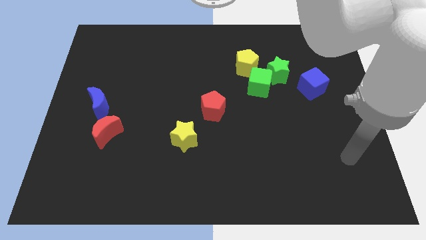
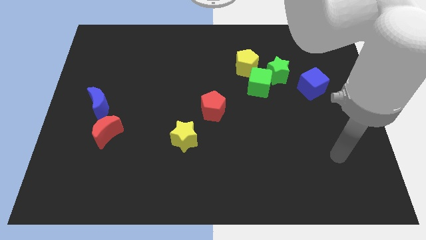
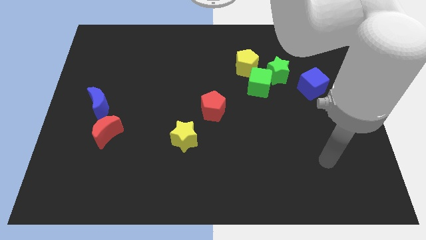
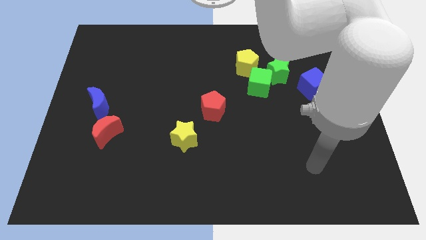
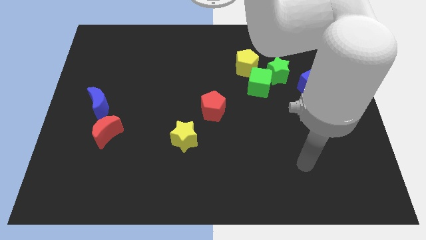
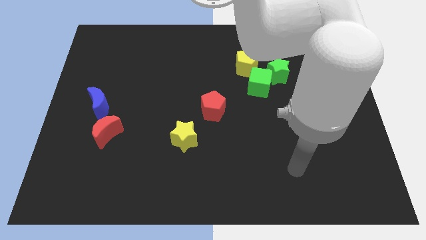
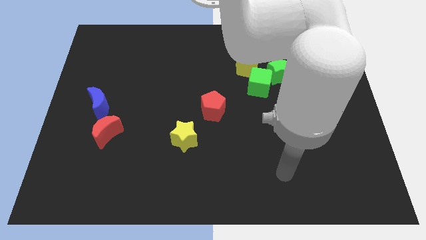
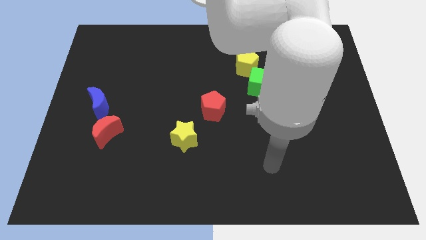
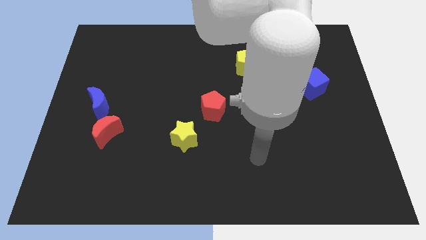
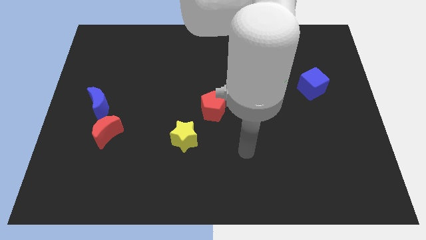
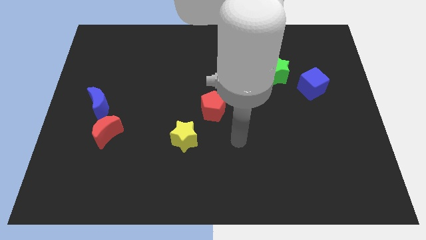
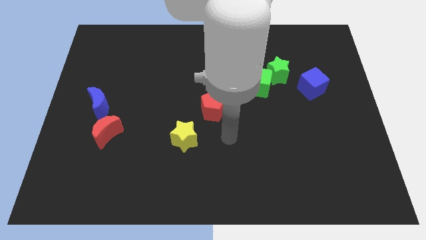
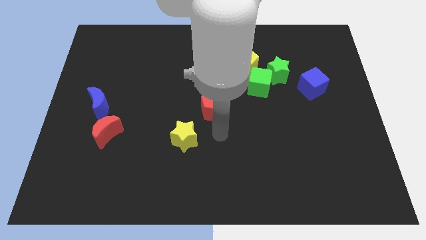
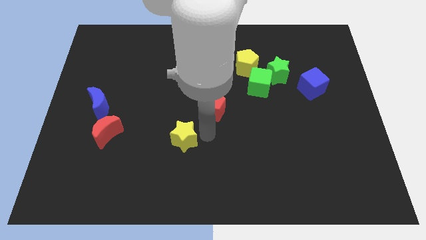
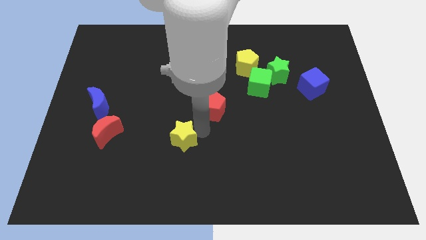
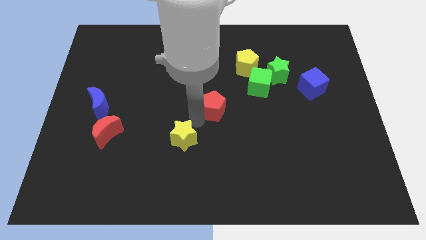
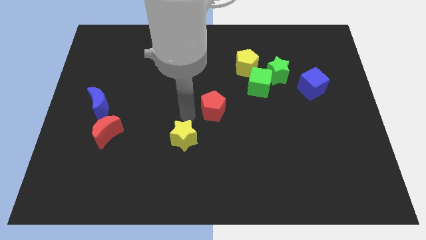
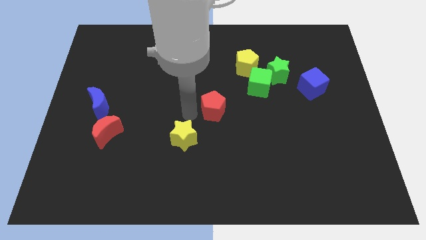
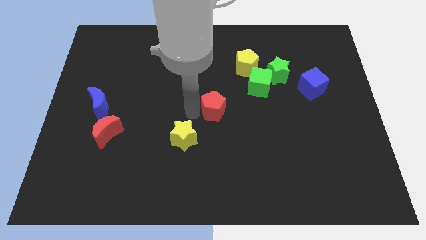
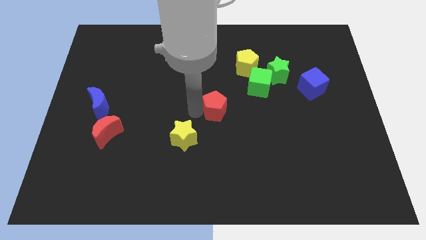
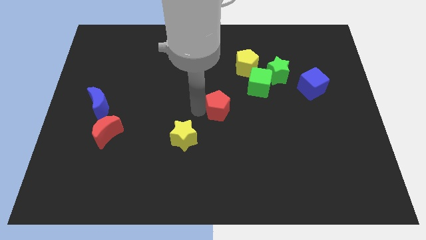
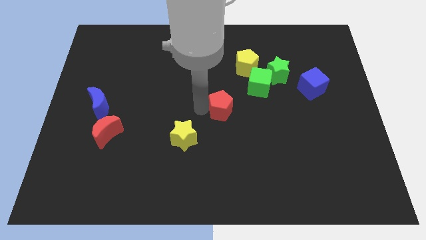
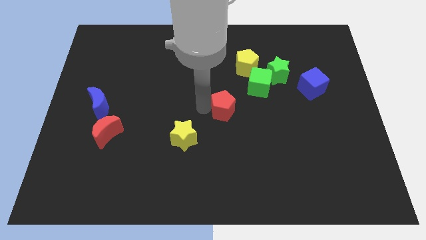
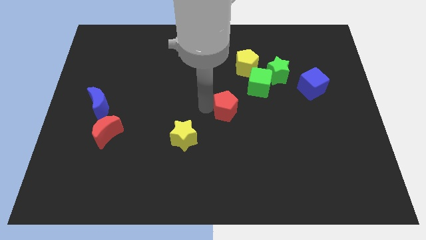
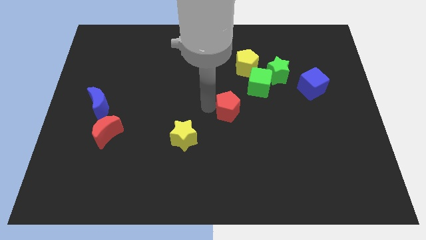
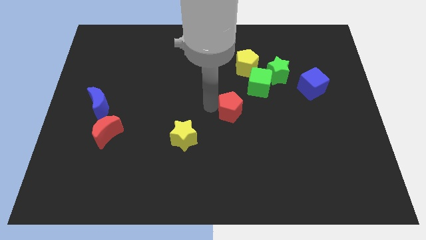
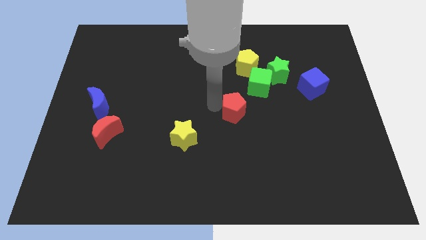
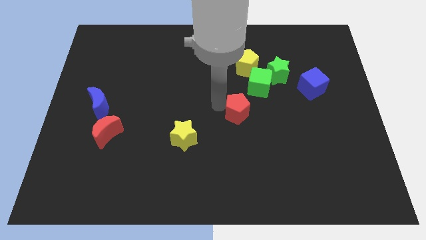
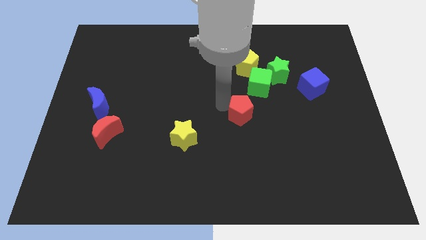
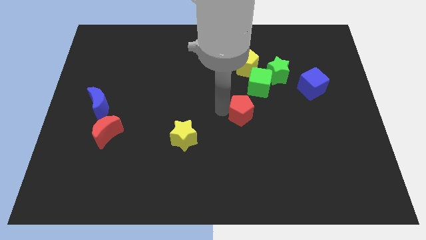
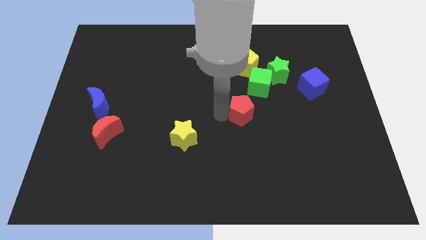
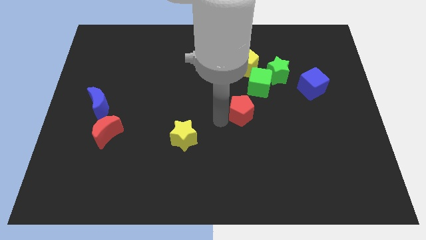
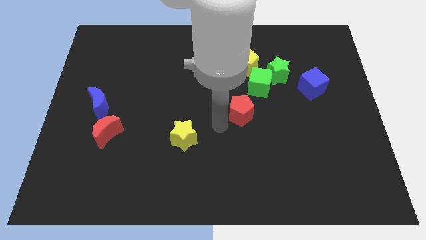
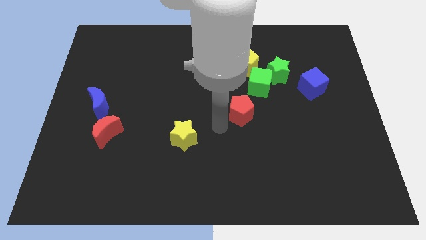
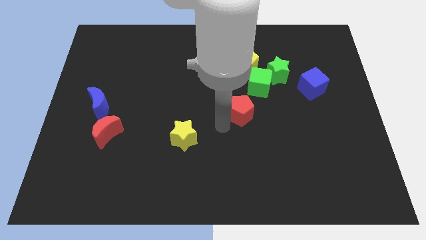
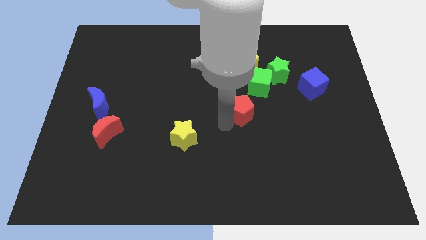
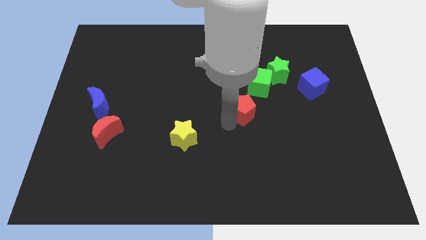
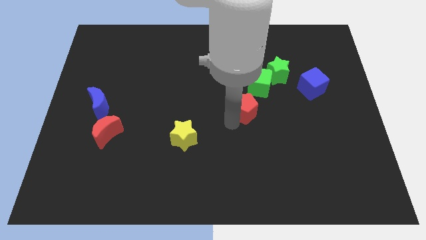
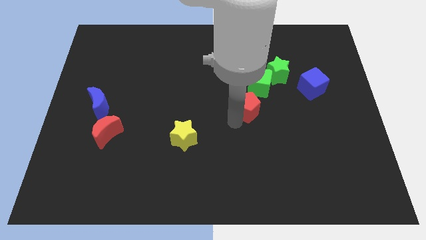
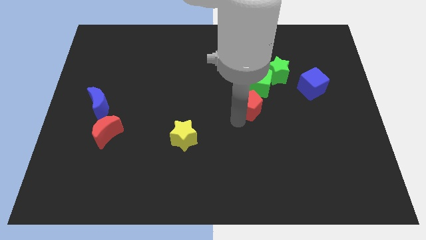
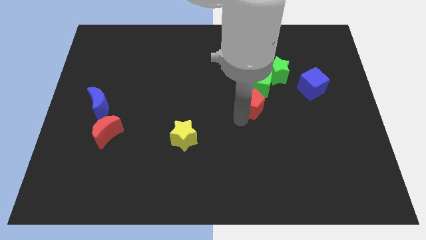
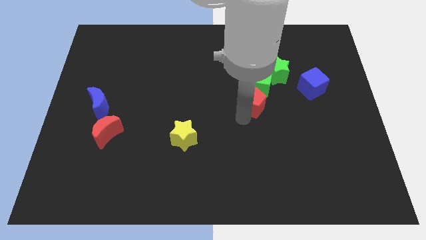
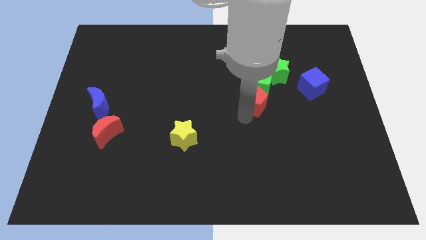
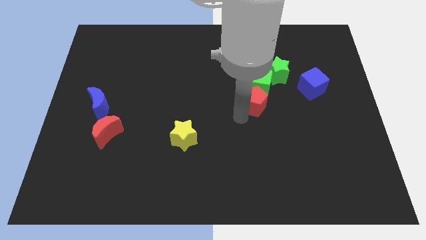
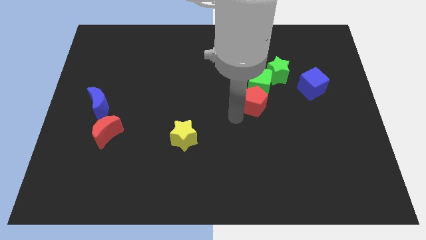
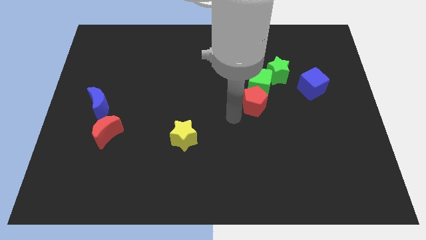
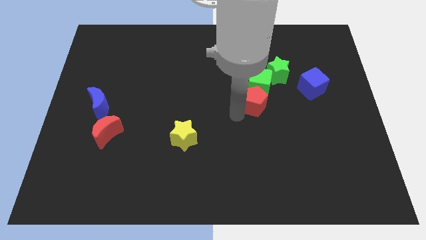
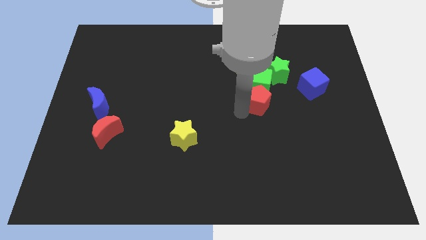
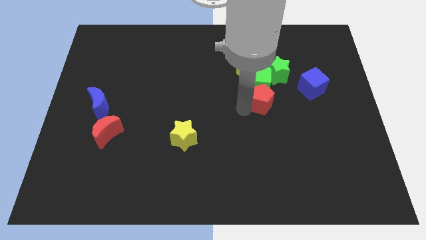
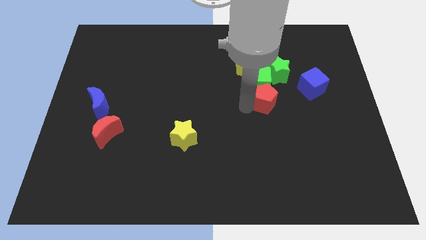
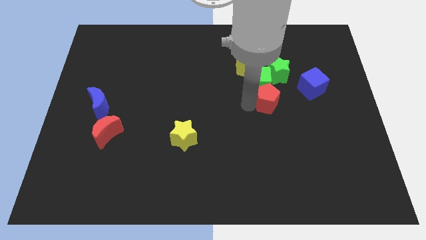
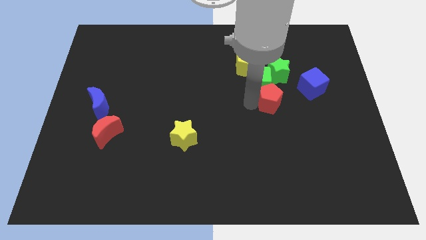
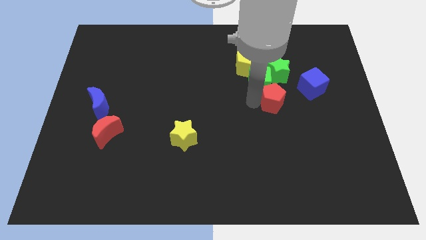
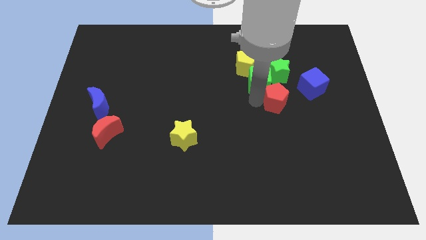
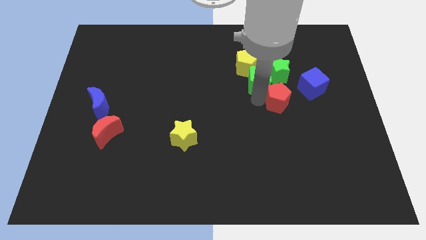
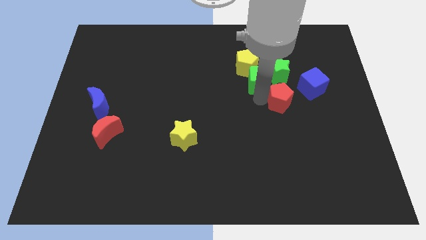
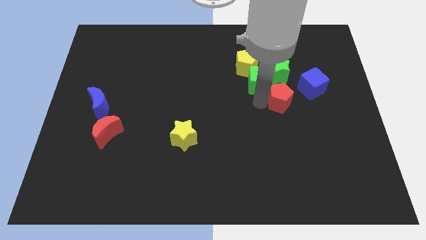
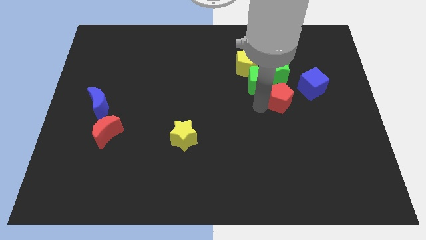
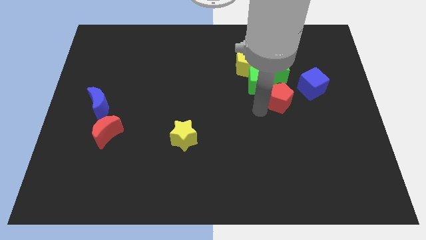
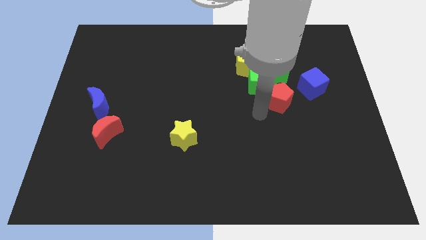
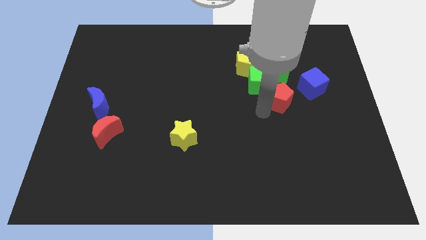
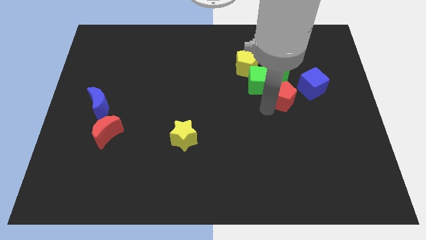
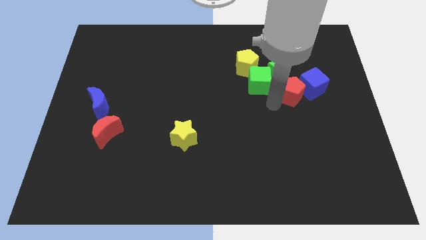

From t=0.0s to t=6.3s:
put the red pentagon towards the blue cube

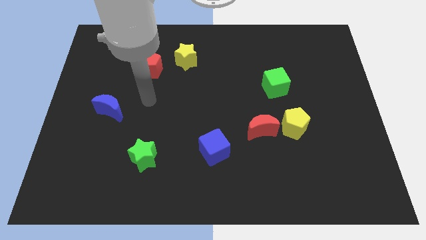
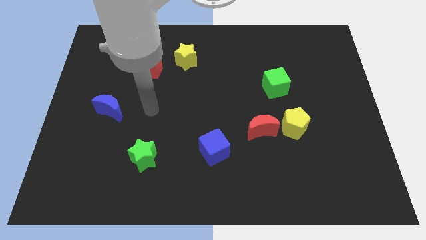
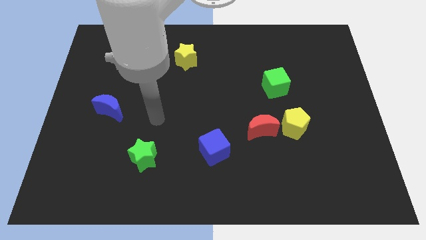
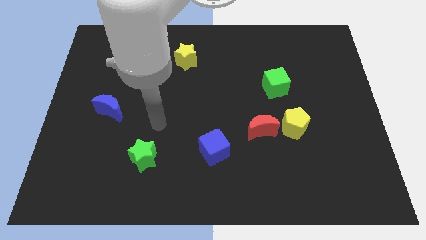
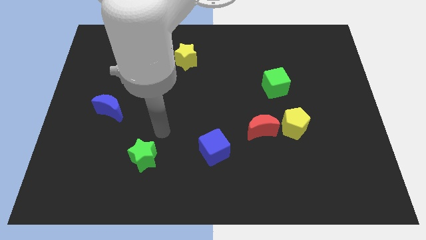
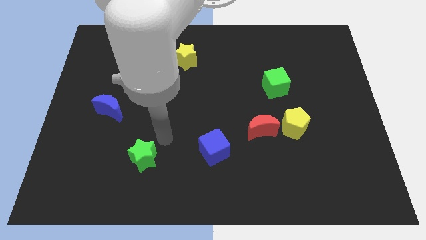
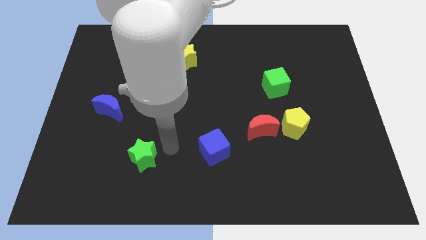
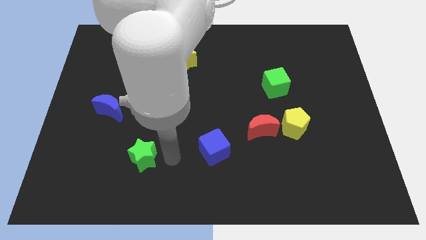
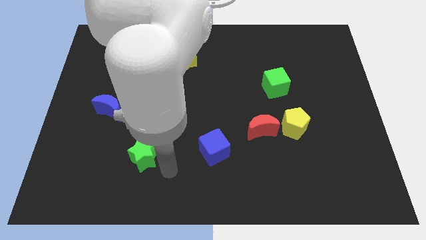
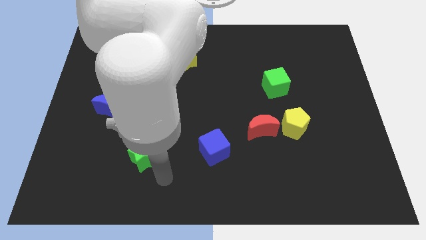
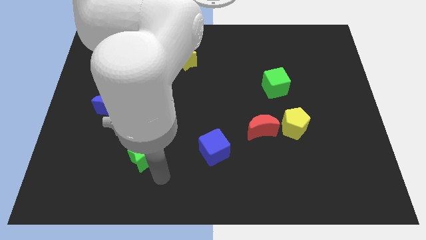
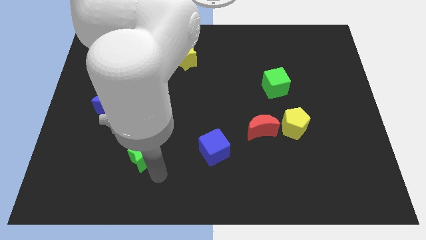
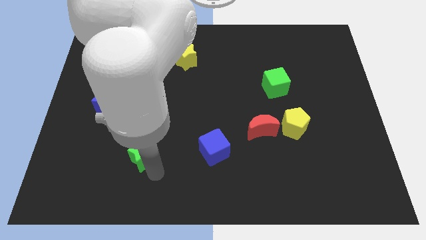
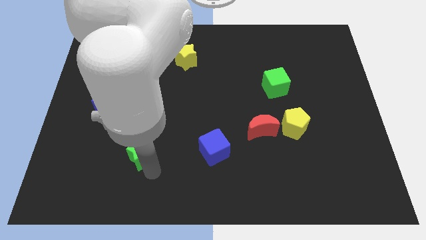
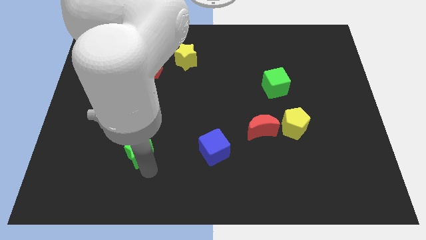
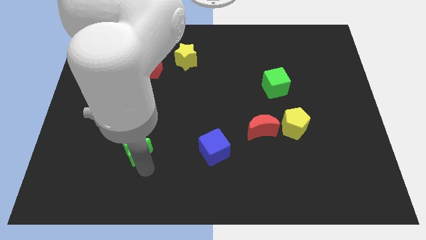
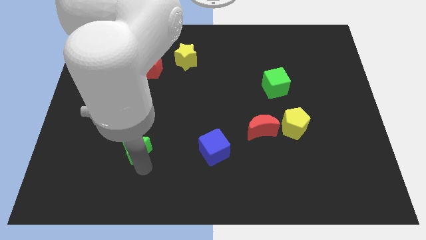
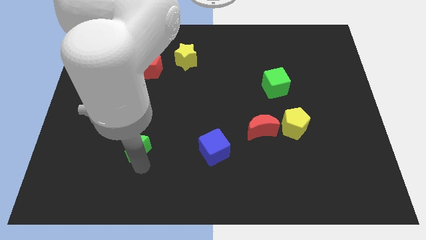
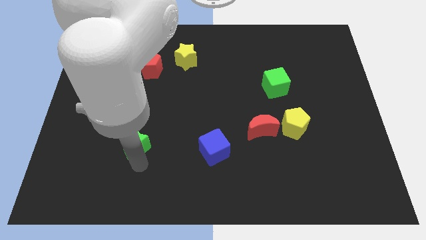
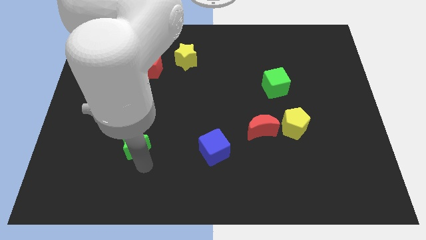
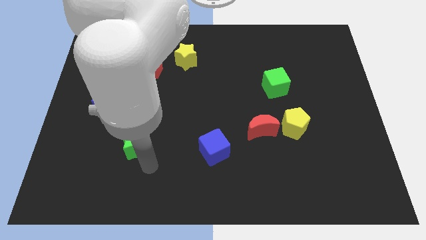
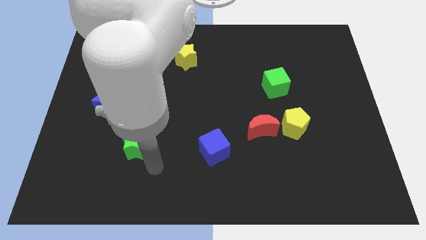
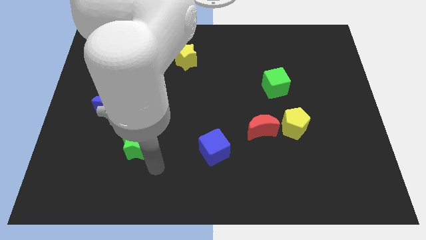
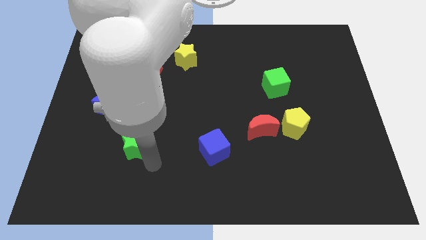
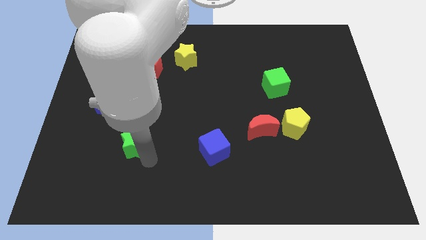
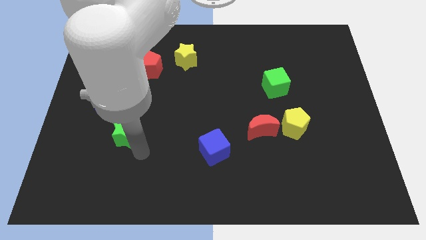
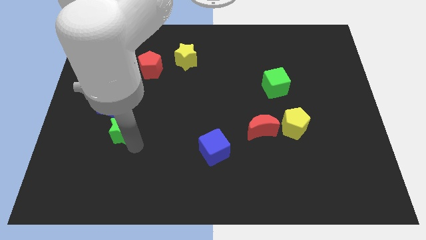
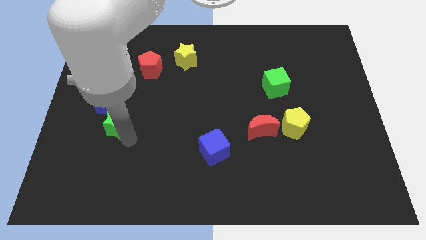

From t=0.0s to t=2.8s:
slide the green star towards the blue moon
